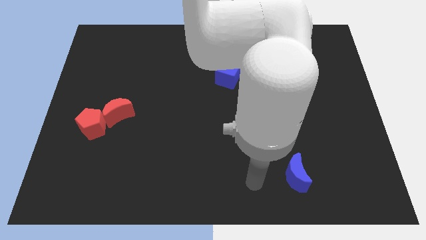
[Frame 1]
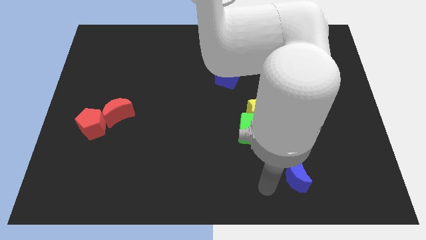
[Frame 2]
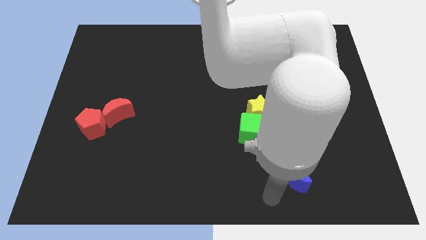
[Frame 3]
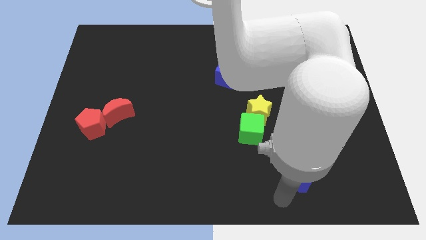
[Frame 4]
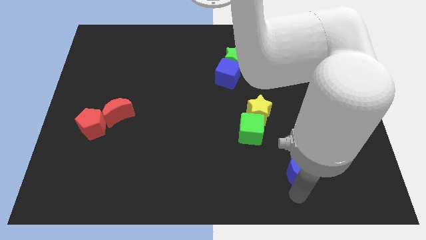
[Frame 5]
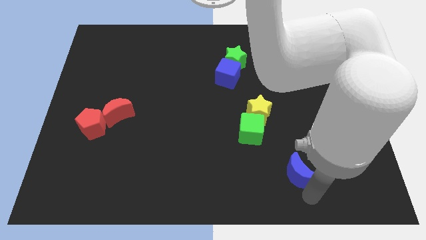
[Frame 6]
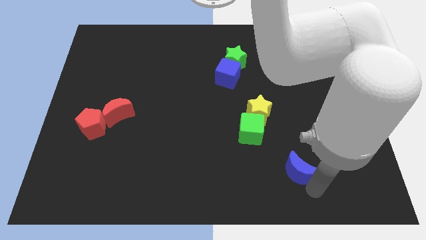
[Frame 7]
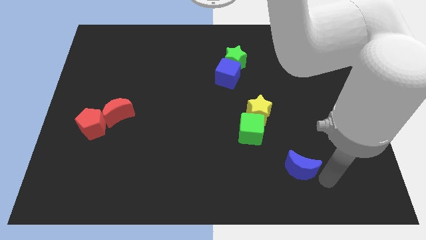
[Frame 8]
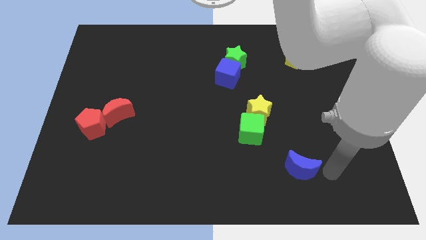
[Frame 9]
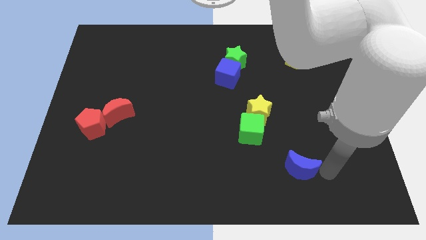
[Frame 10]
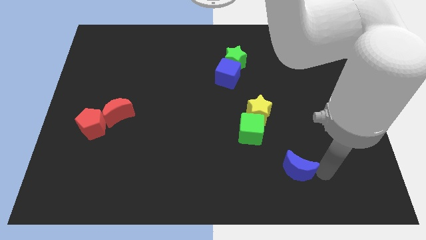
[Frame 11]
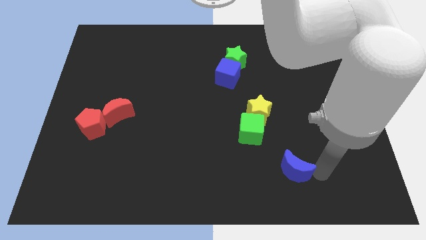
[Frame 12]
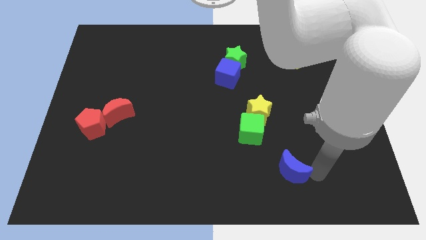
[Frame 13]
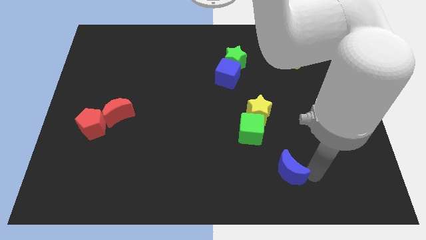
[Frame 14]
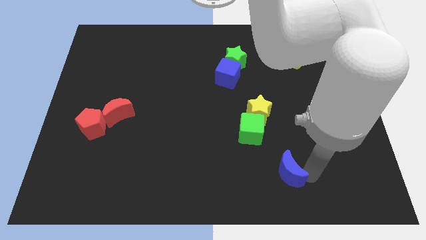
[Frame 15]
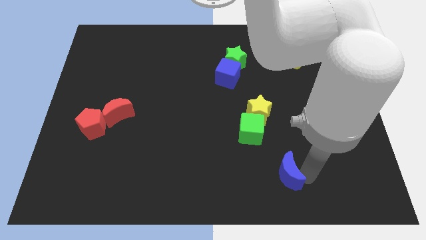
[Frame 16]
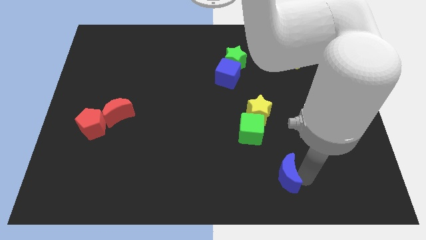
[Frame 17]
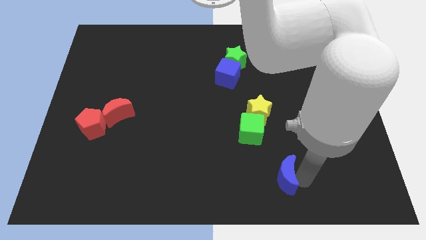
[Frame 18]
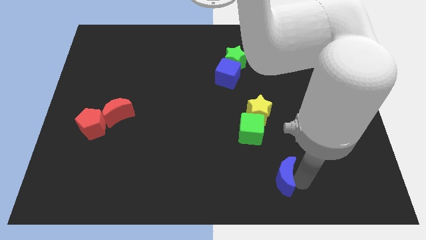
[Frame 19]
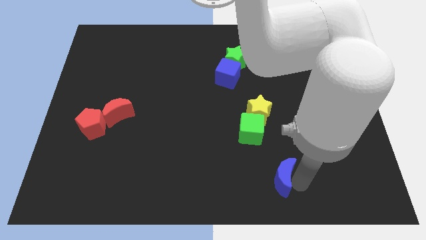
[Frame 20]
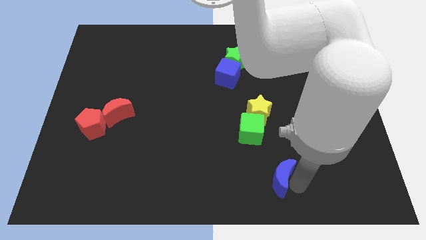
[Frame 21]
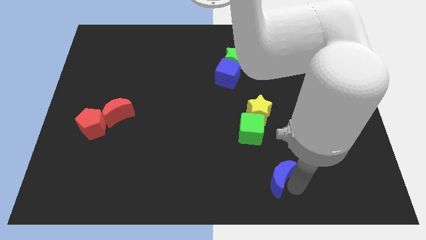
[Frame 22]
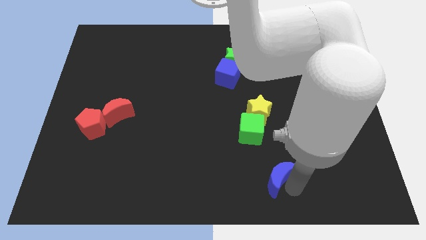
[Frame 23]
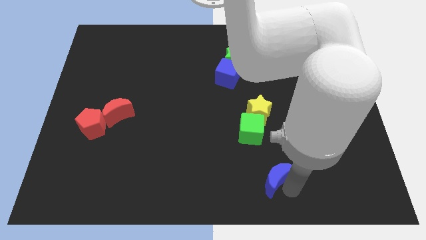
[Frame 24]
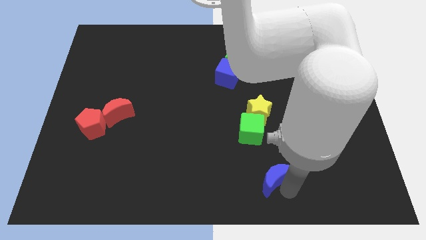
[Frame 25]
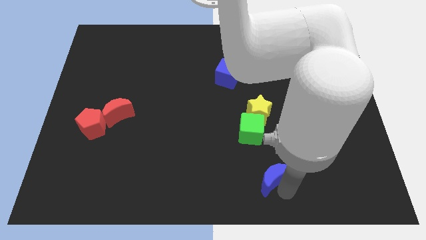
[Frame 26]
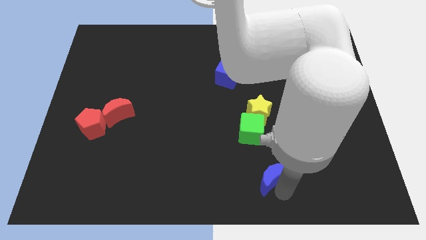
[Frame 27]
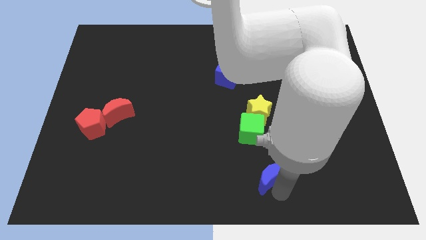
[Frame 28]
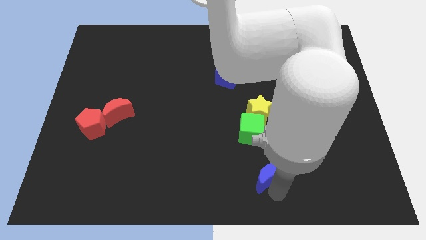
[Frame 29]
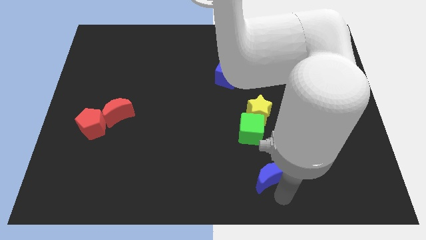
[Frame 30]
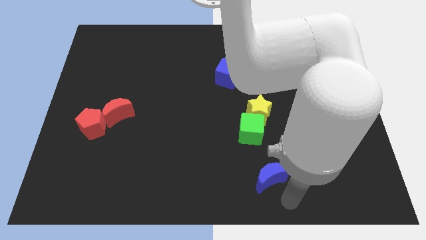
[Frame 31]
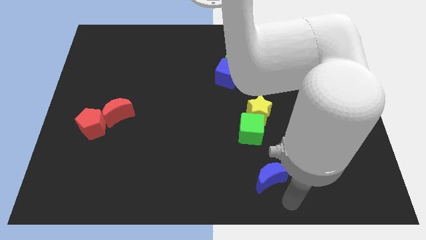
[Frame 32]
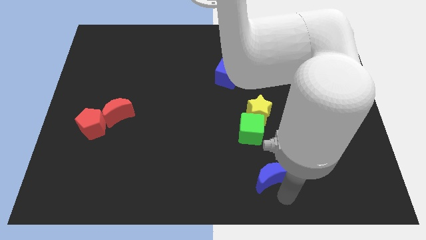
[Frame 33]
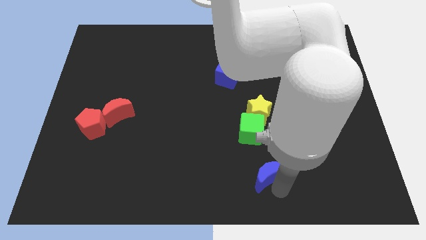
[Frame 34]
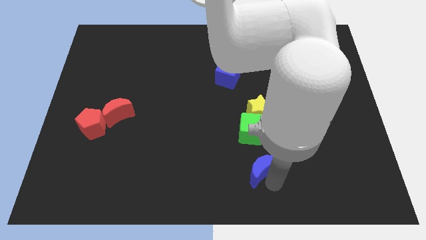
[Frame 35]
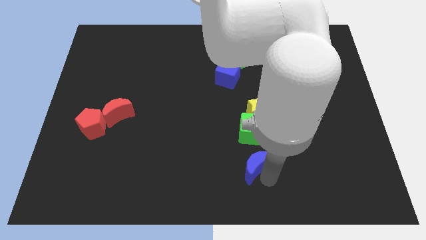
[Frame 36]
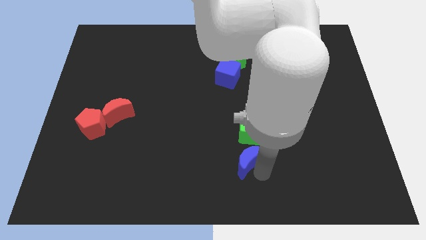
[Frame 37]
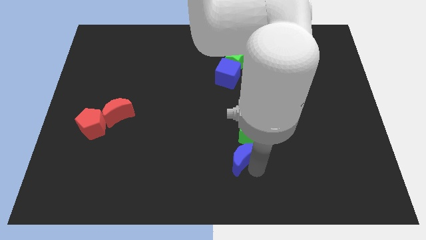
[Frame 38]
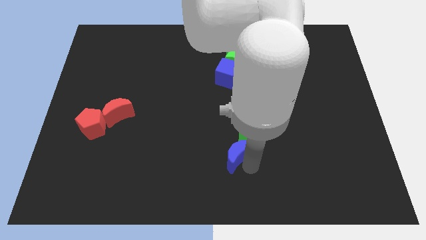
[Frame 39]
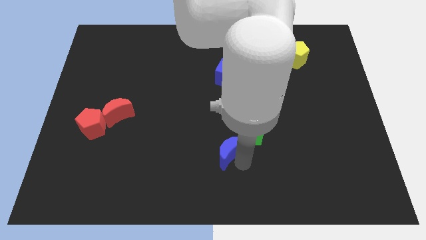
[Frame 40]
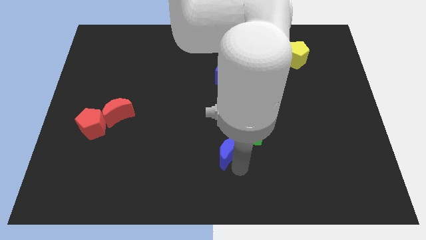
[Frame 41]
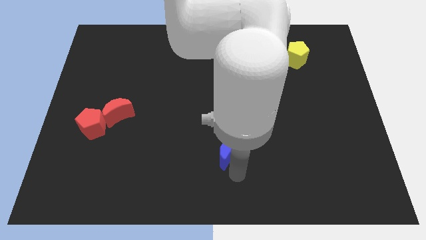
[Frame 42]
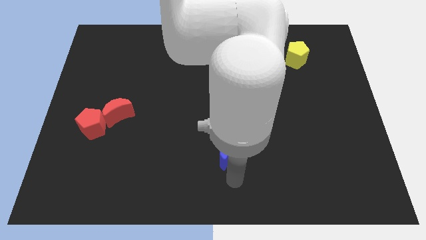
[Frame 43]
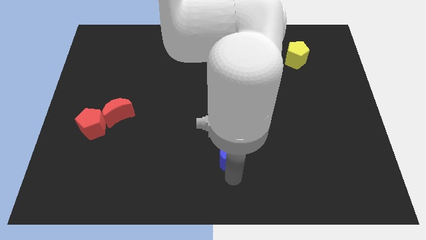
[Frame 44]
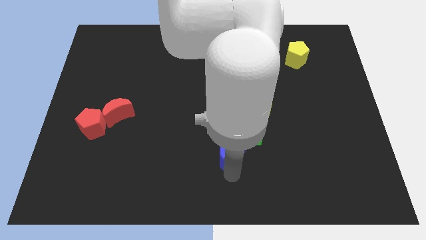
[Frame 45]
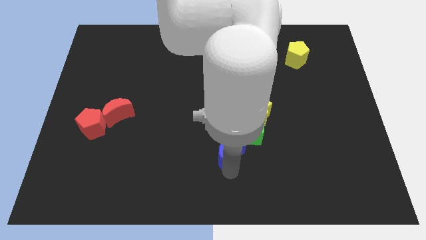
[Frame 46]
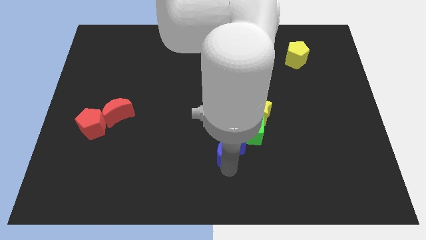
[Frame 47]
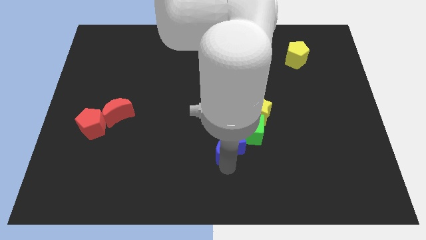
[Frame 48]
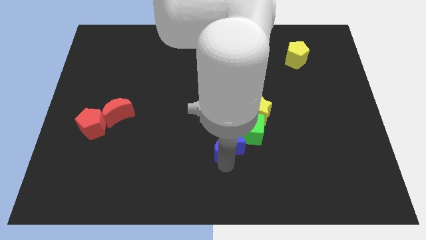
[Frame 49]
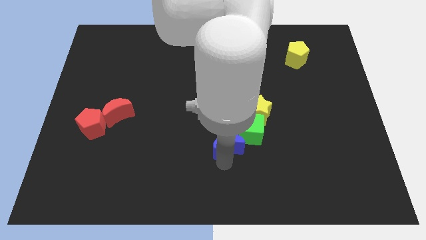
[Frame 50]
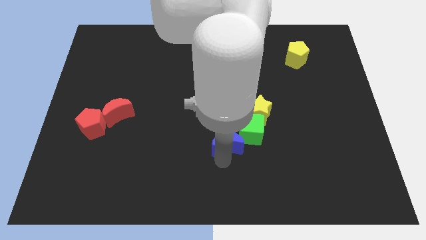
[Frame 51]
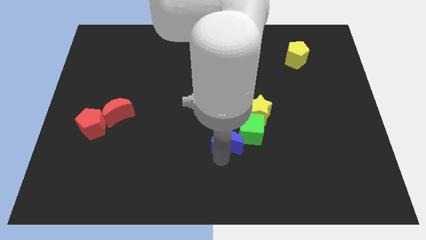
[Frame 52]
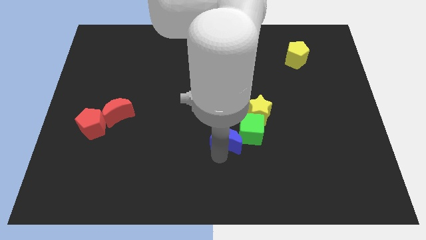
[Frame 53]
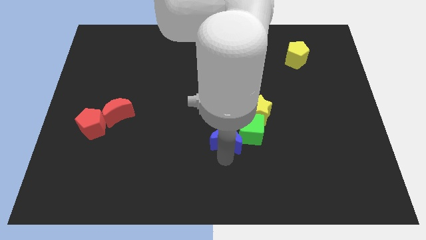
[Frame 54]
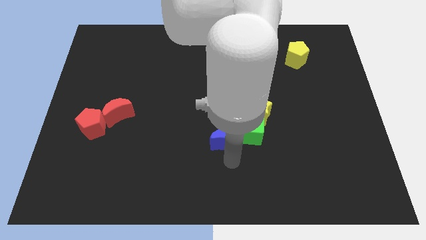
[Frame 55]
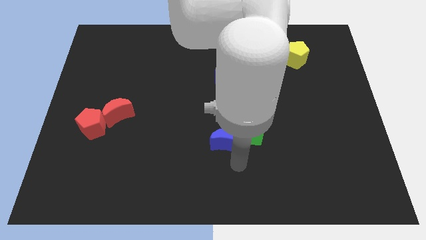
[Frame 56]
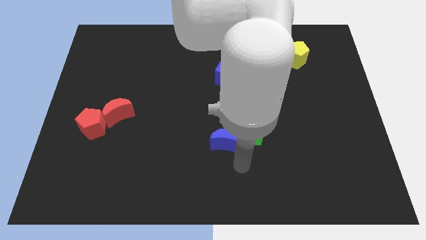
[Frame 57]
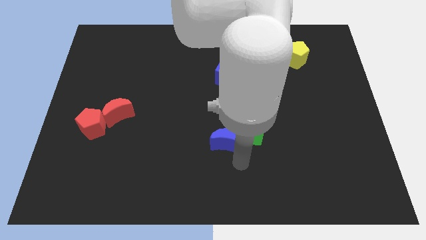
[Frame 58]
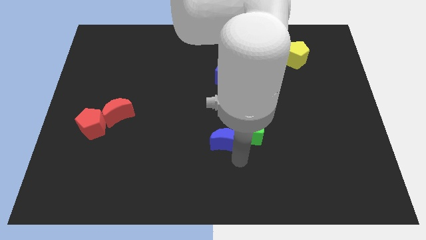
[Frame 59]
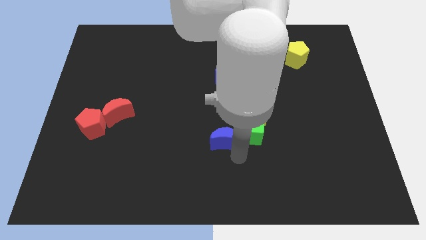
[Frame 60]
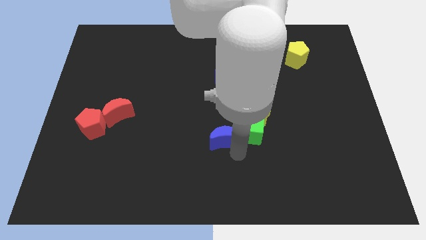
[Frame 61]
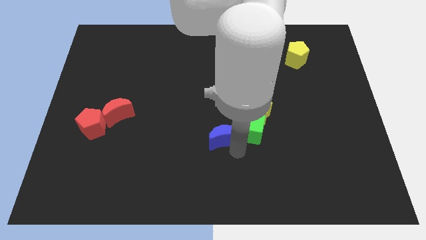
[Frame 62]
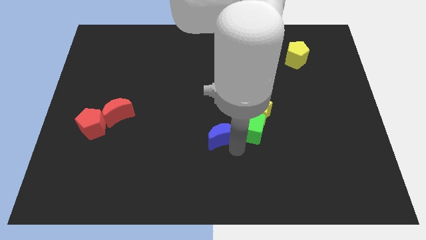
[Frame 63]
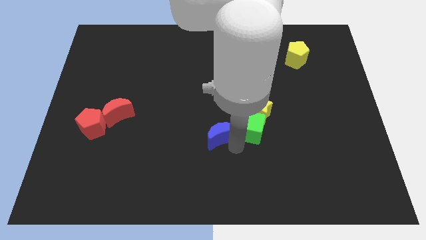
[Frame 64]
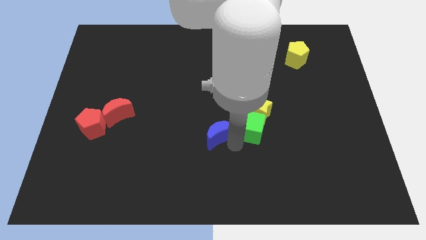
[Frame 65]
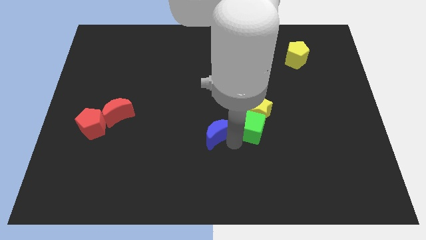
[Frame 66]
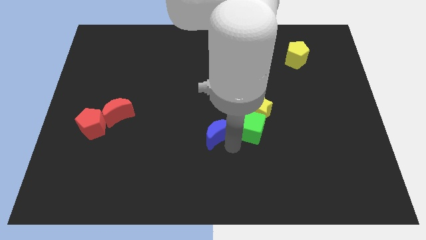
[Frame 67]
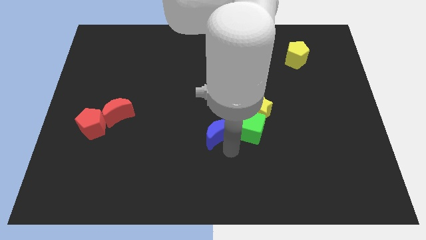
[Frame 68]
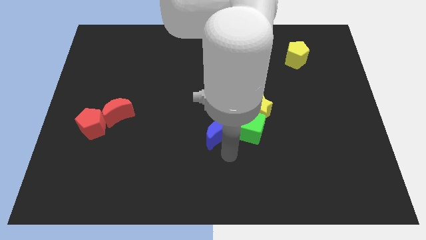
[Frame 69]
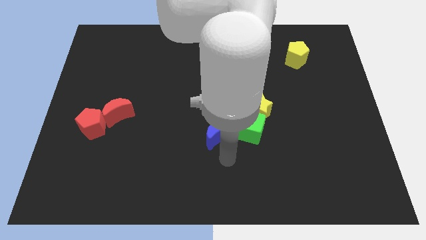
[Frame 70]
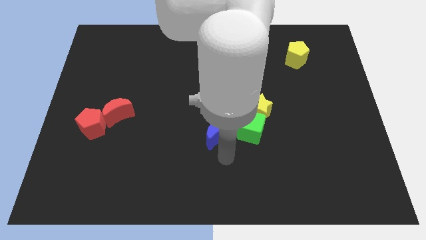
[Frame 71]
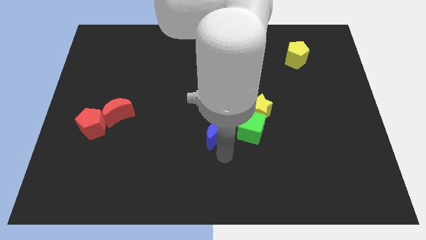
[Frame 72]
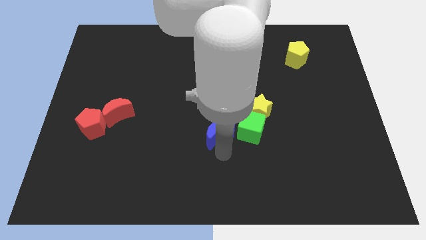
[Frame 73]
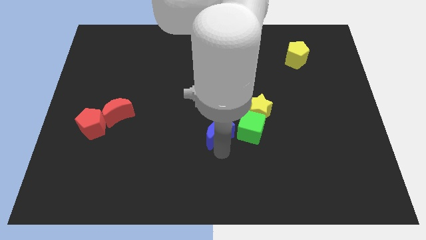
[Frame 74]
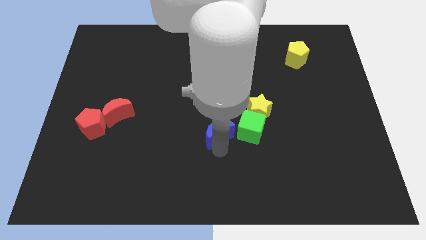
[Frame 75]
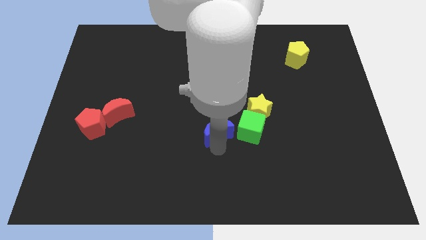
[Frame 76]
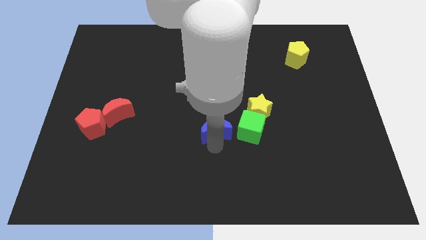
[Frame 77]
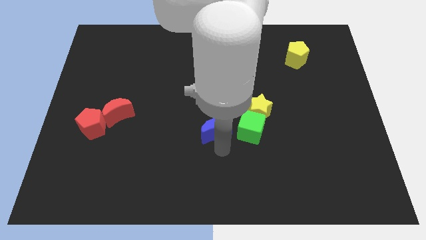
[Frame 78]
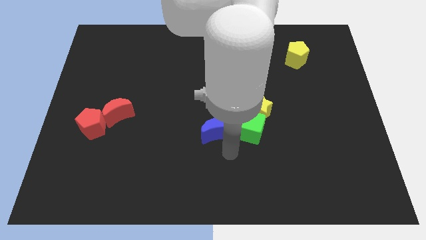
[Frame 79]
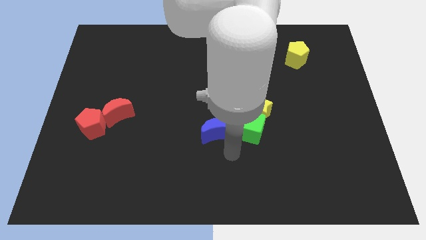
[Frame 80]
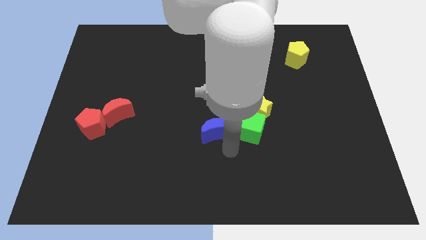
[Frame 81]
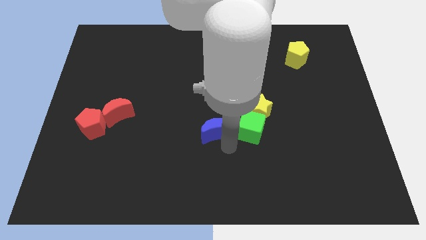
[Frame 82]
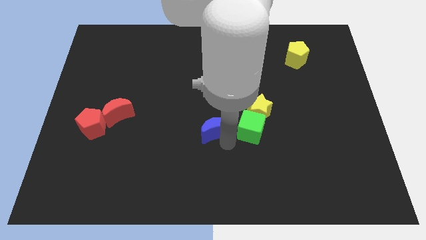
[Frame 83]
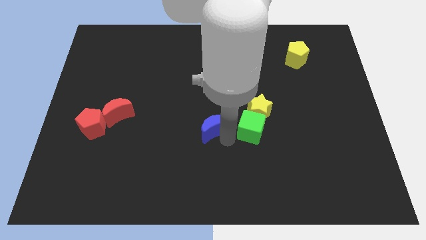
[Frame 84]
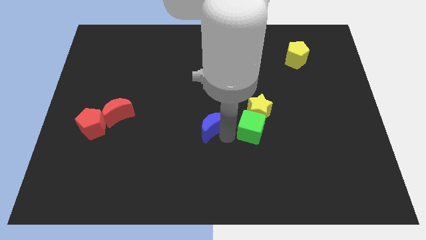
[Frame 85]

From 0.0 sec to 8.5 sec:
push the blue moon diagonally up and to the left
